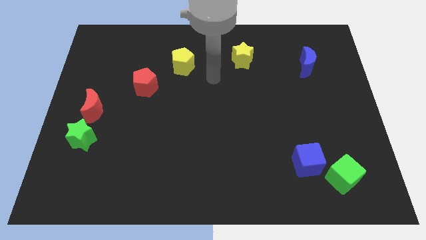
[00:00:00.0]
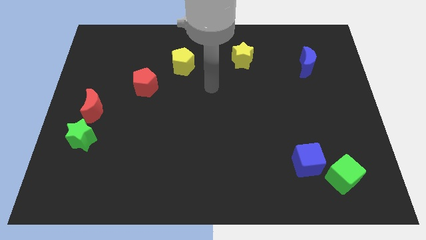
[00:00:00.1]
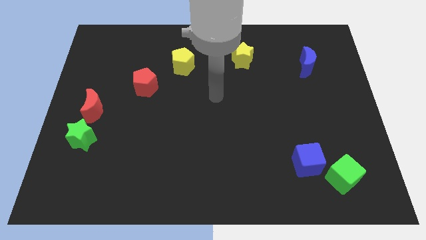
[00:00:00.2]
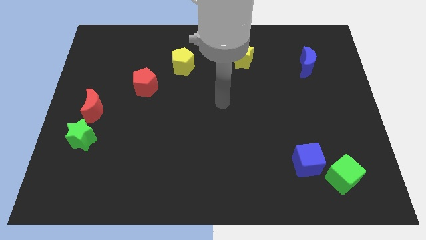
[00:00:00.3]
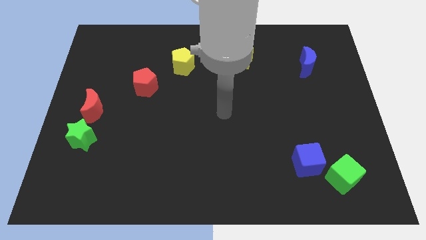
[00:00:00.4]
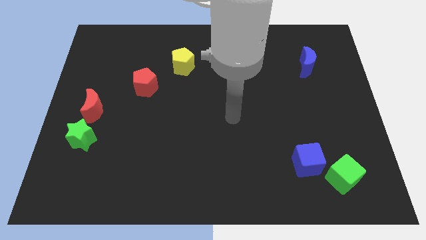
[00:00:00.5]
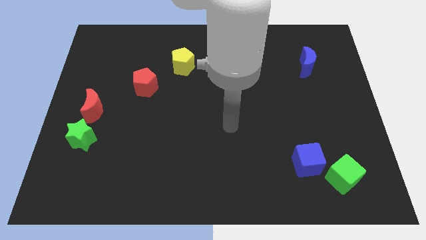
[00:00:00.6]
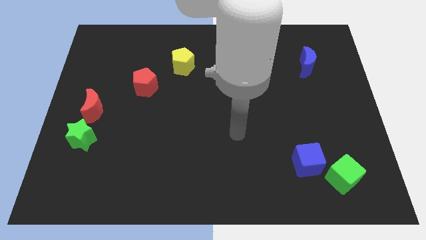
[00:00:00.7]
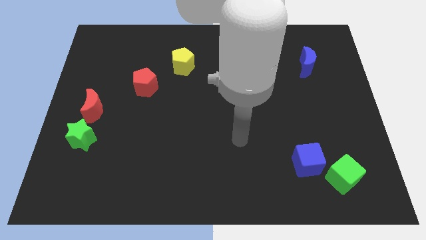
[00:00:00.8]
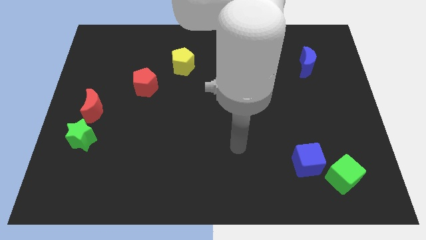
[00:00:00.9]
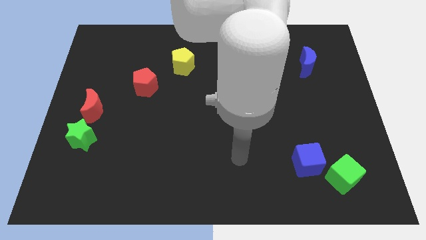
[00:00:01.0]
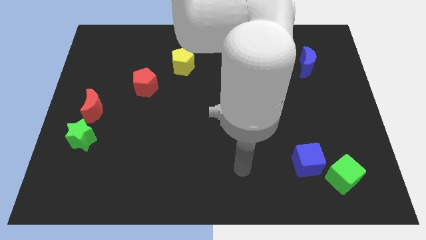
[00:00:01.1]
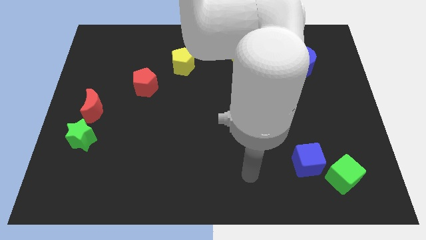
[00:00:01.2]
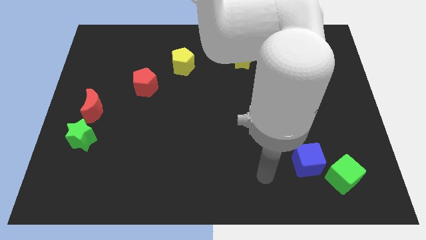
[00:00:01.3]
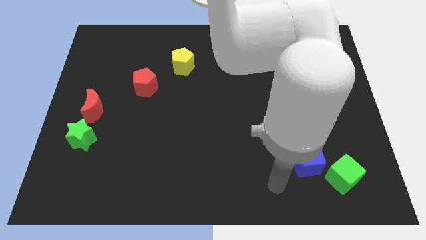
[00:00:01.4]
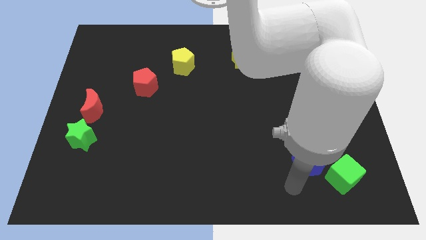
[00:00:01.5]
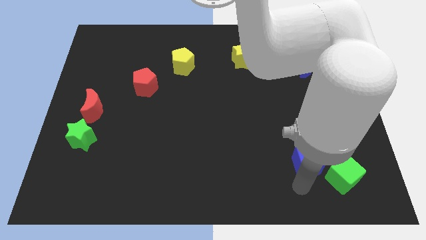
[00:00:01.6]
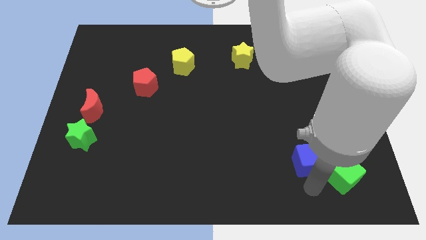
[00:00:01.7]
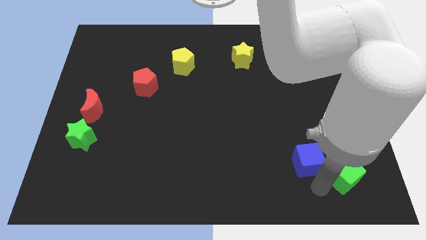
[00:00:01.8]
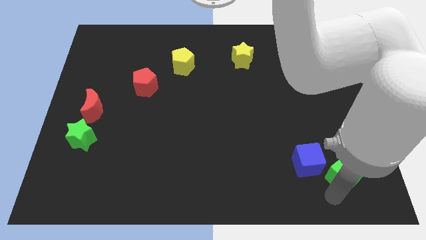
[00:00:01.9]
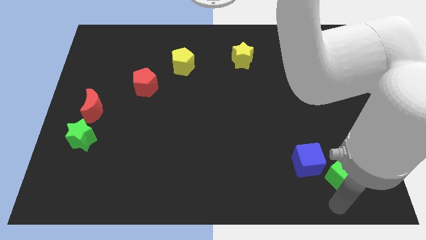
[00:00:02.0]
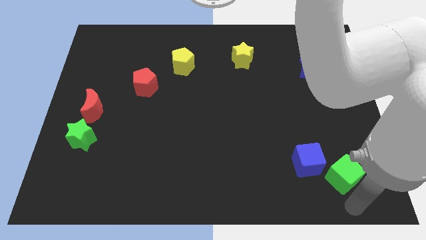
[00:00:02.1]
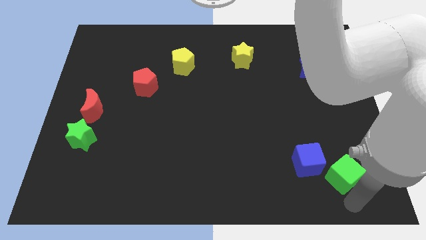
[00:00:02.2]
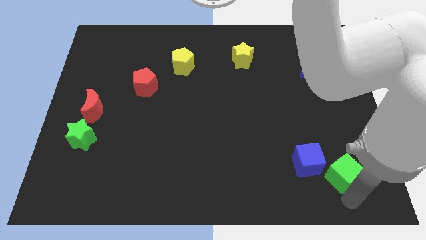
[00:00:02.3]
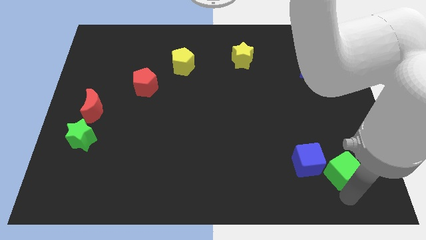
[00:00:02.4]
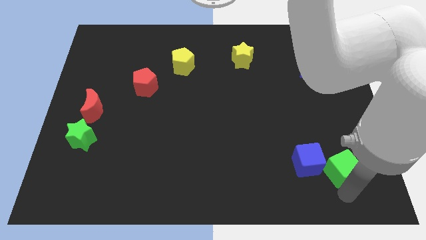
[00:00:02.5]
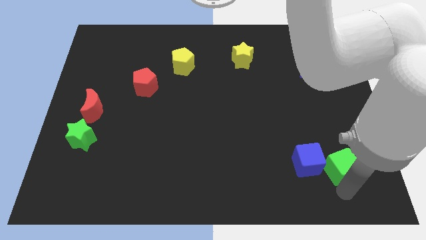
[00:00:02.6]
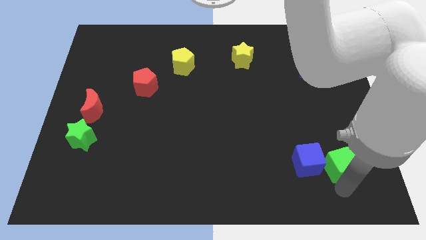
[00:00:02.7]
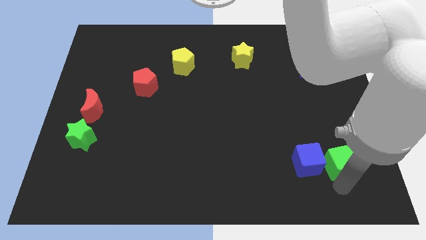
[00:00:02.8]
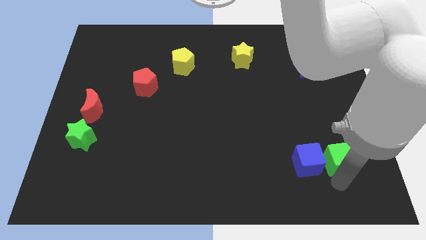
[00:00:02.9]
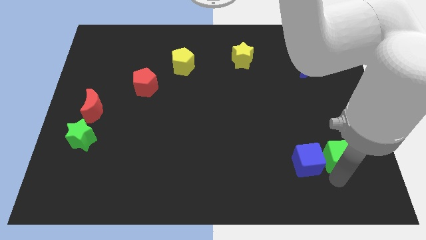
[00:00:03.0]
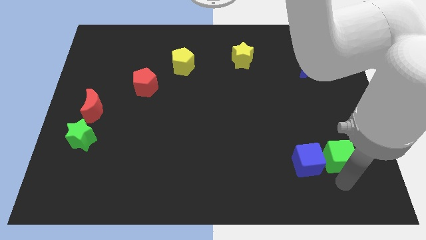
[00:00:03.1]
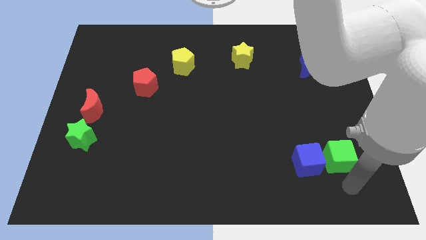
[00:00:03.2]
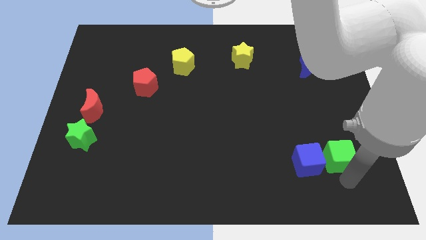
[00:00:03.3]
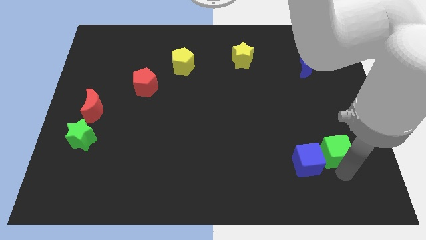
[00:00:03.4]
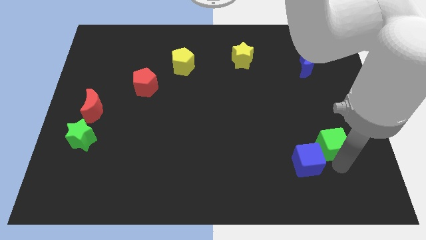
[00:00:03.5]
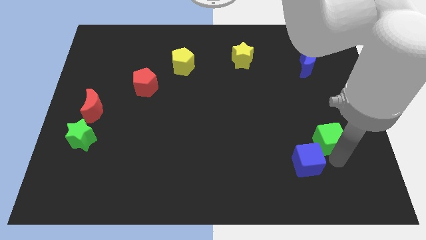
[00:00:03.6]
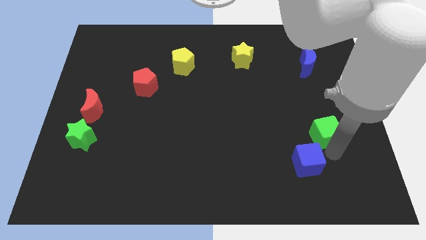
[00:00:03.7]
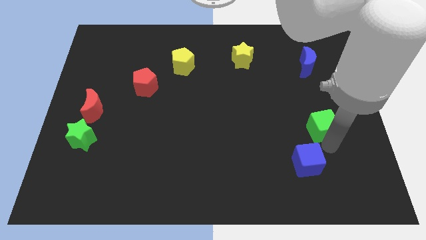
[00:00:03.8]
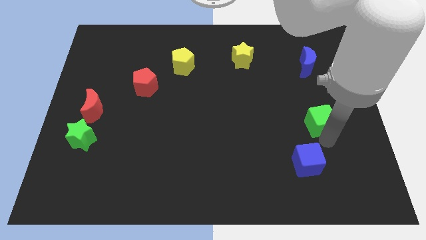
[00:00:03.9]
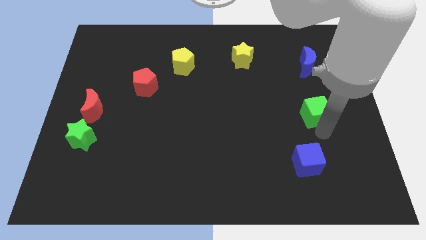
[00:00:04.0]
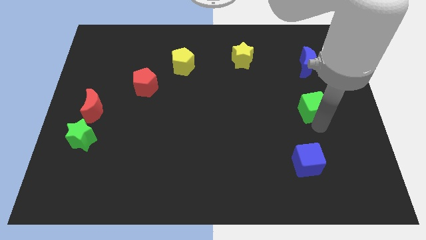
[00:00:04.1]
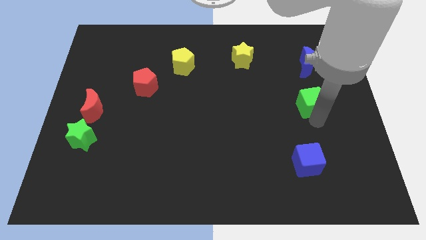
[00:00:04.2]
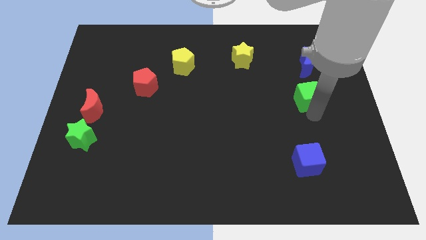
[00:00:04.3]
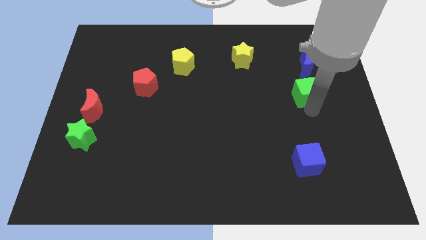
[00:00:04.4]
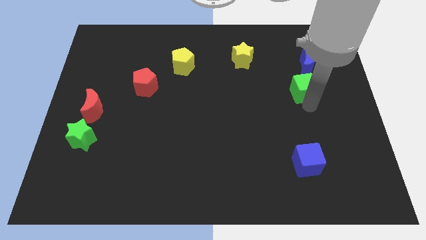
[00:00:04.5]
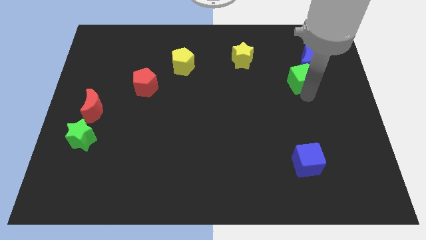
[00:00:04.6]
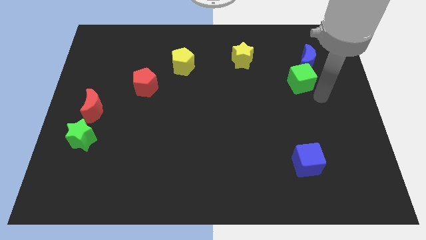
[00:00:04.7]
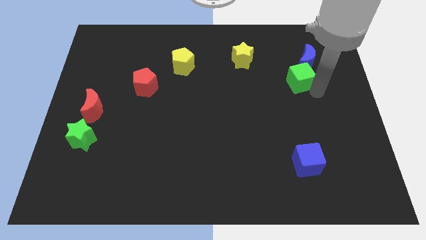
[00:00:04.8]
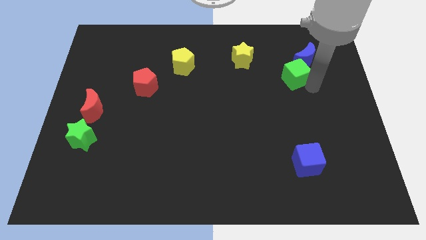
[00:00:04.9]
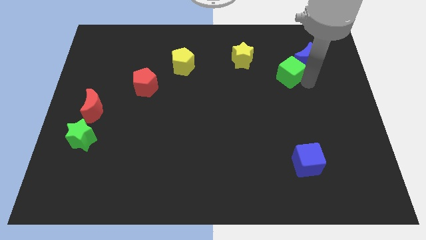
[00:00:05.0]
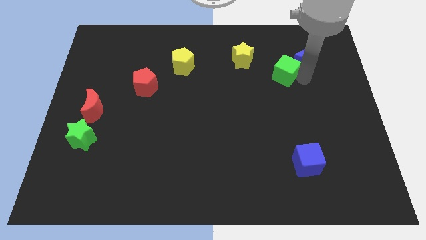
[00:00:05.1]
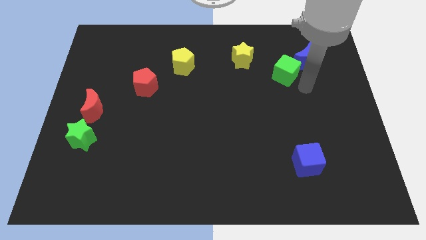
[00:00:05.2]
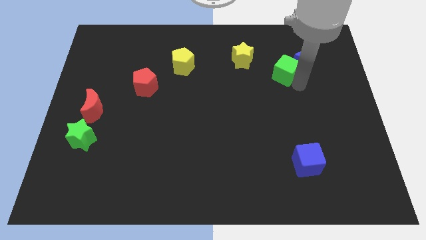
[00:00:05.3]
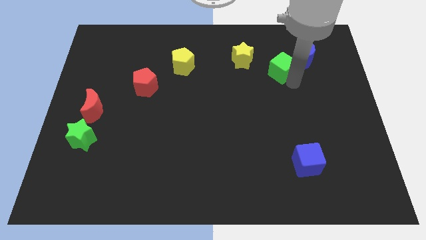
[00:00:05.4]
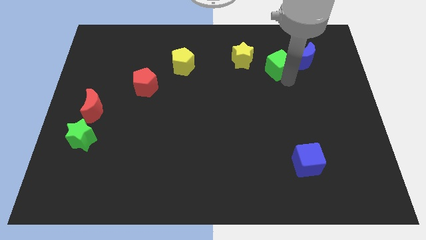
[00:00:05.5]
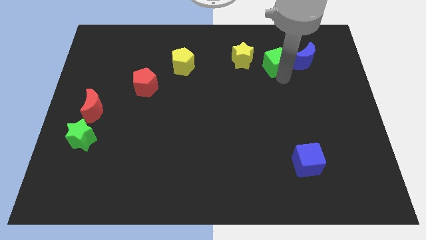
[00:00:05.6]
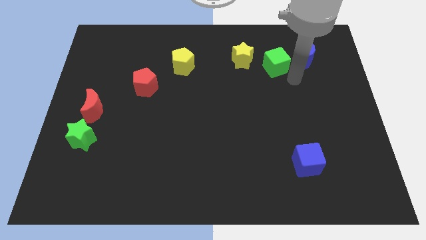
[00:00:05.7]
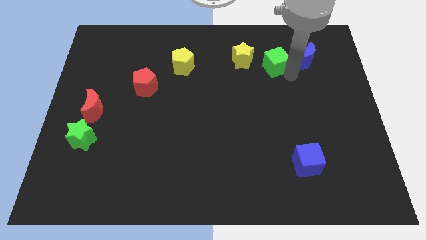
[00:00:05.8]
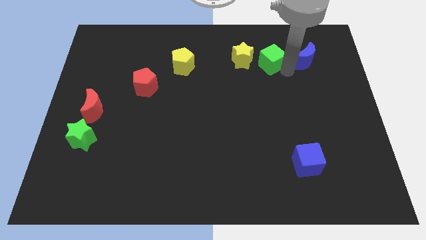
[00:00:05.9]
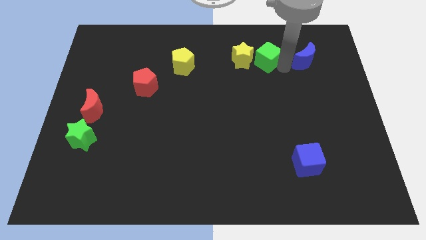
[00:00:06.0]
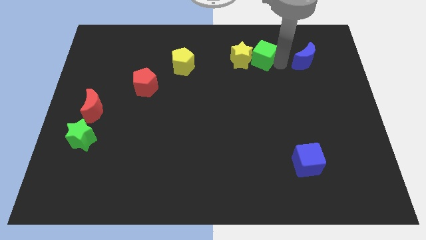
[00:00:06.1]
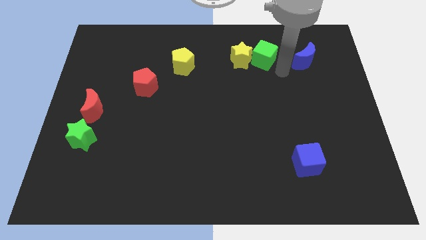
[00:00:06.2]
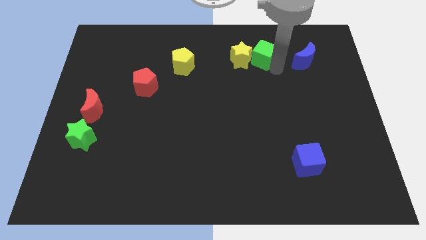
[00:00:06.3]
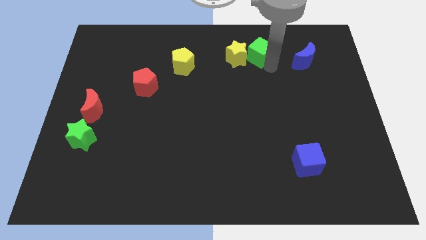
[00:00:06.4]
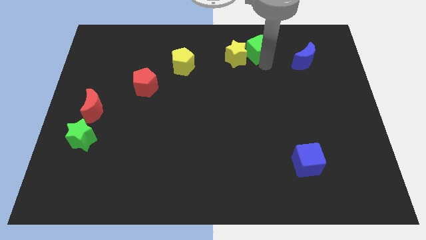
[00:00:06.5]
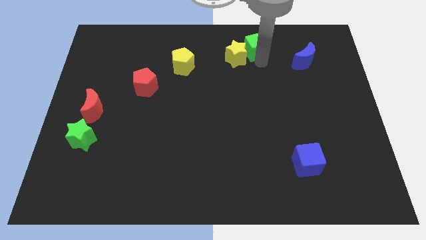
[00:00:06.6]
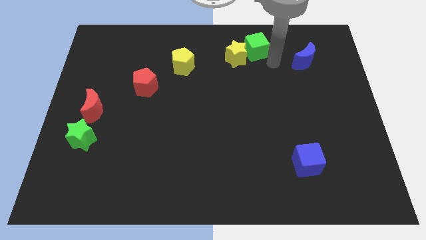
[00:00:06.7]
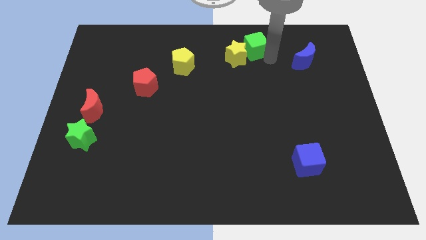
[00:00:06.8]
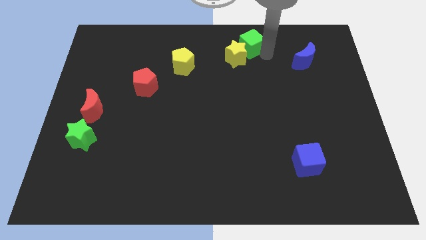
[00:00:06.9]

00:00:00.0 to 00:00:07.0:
move the green cube to the towards your base
